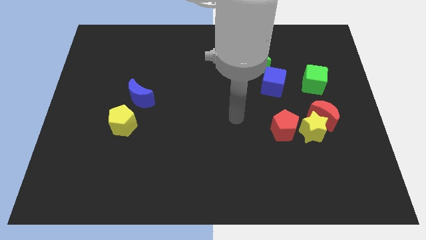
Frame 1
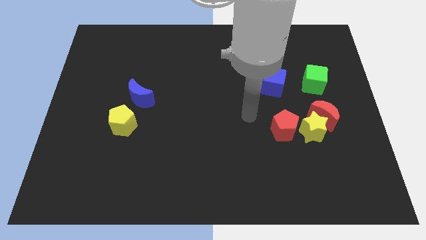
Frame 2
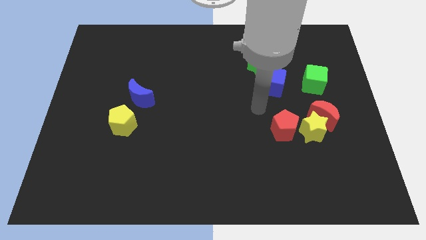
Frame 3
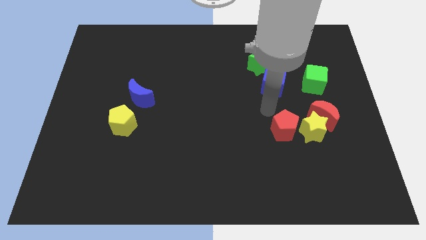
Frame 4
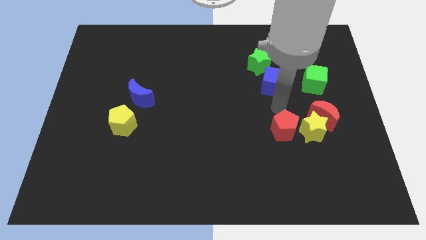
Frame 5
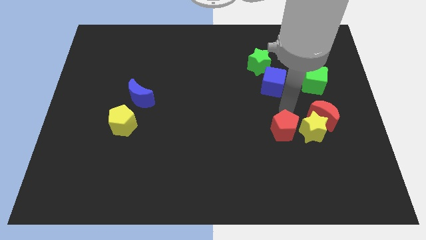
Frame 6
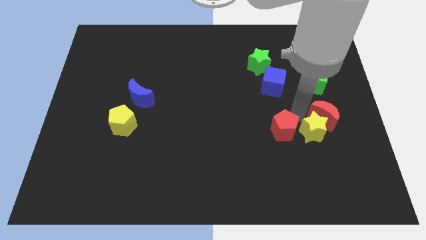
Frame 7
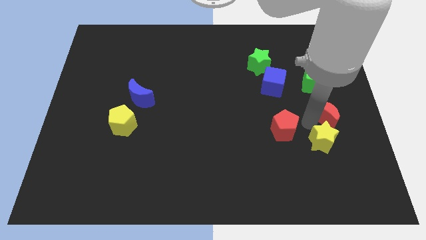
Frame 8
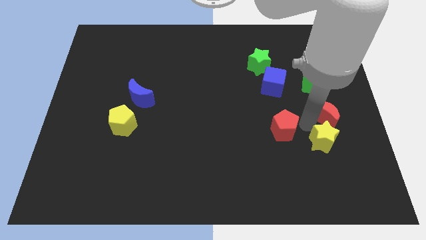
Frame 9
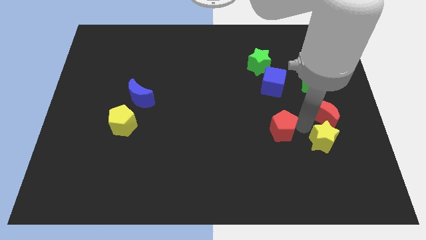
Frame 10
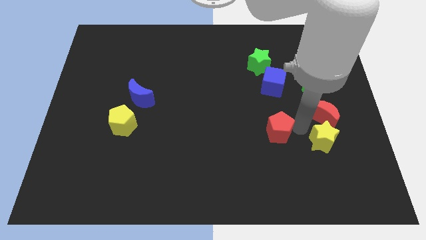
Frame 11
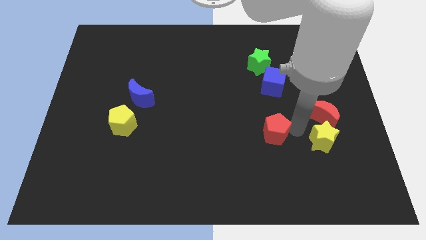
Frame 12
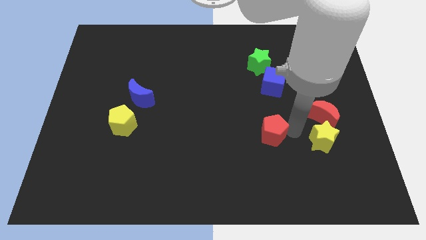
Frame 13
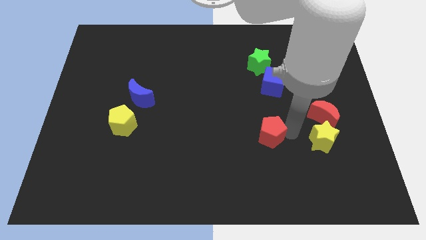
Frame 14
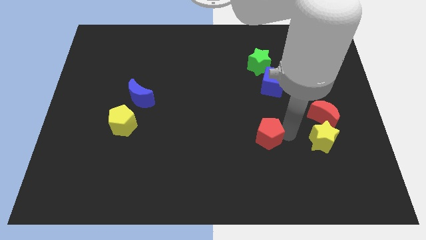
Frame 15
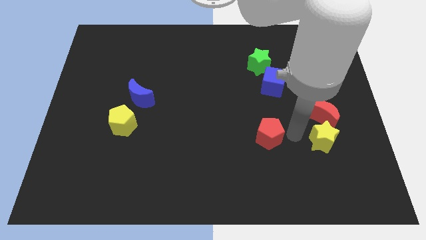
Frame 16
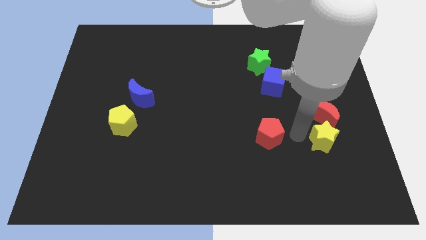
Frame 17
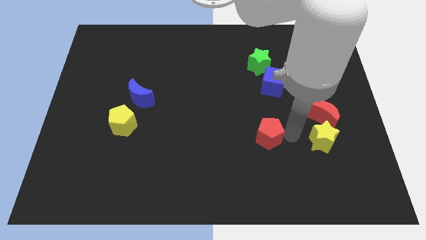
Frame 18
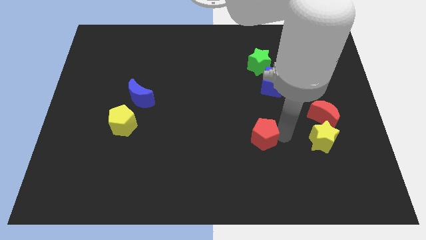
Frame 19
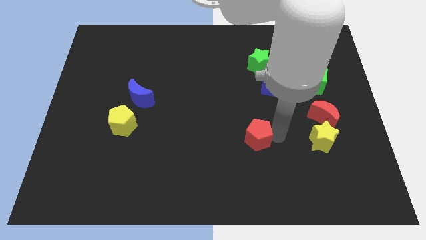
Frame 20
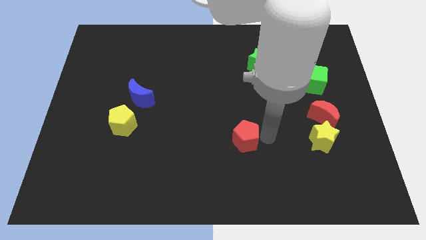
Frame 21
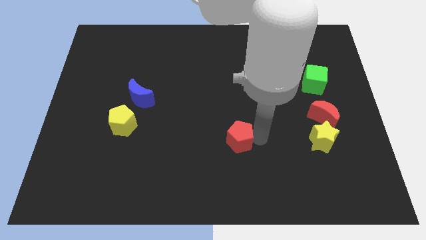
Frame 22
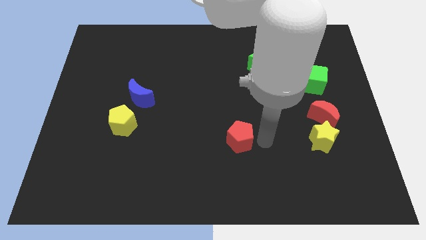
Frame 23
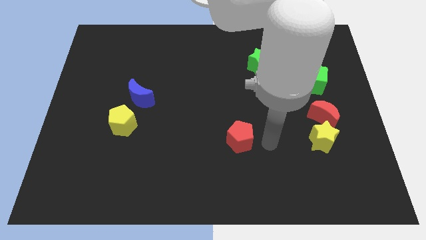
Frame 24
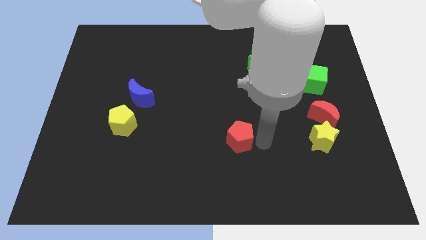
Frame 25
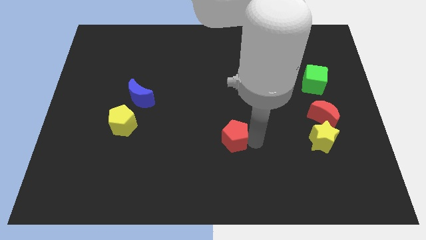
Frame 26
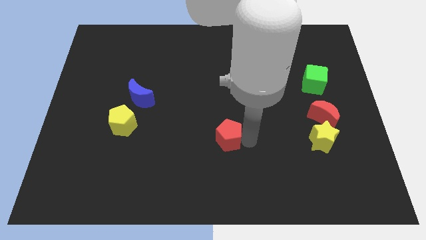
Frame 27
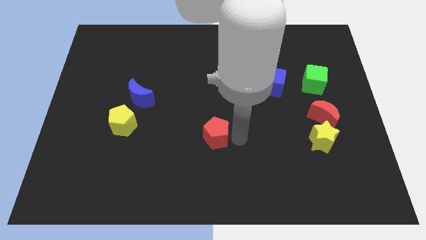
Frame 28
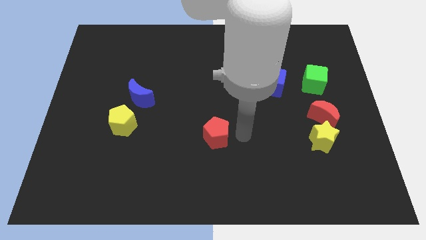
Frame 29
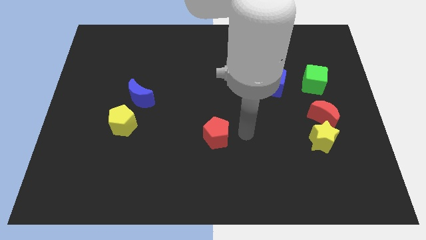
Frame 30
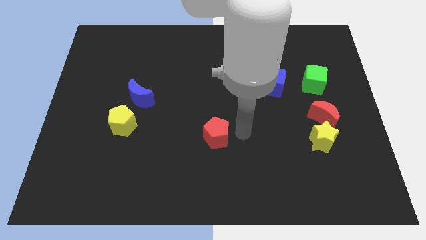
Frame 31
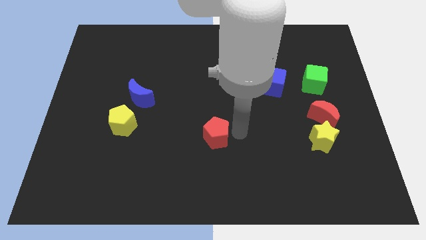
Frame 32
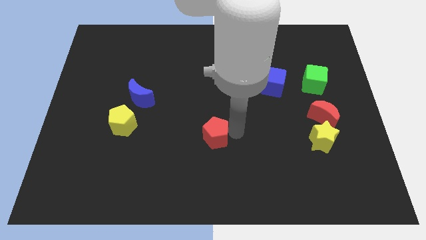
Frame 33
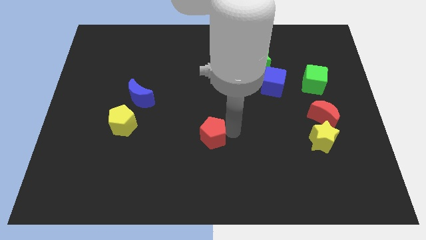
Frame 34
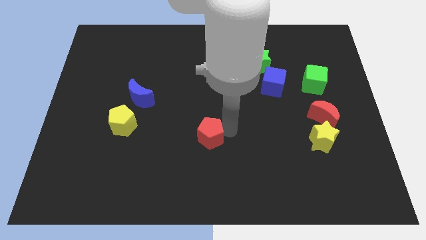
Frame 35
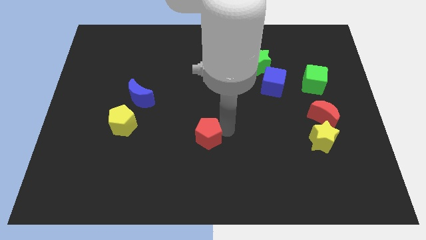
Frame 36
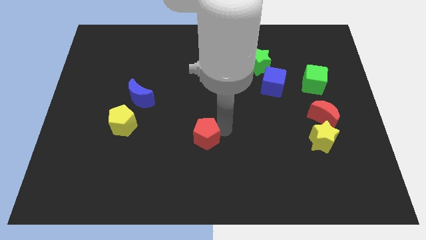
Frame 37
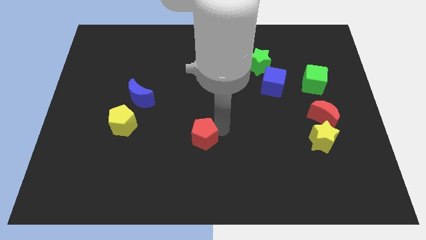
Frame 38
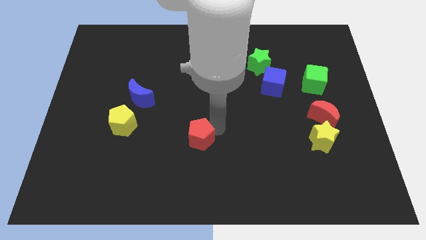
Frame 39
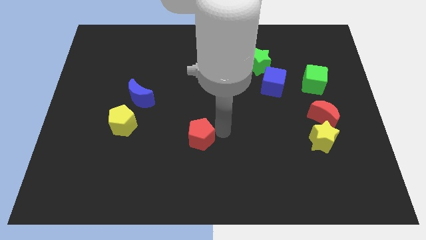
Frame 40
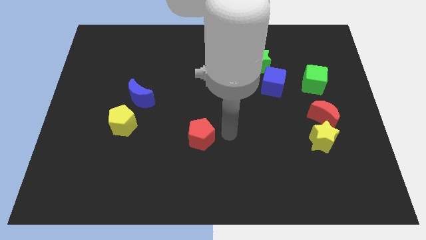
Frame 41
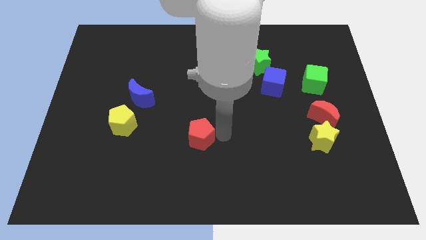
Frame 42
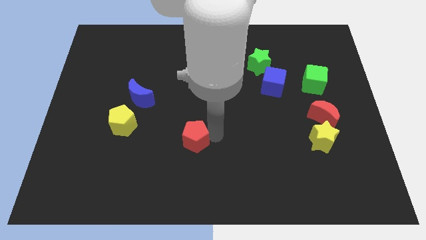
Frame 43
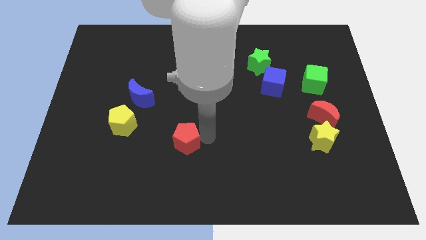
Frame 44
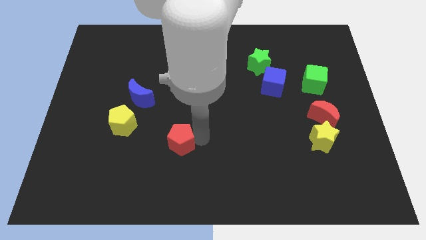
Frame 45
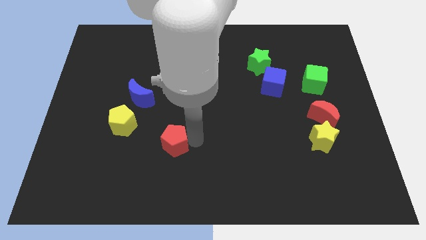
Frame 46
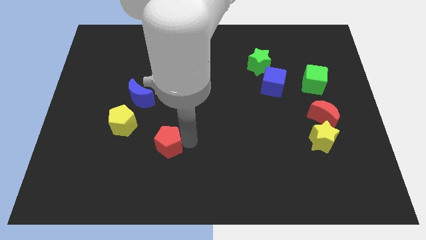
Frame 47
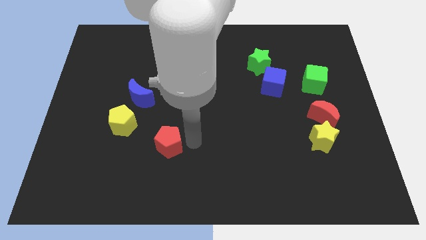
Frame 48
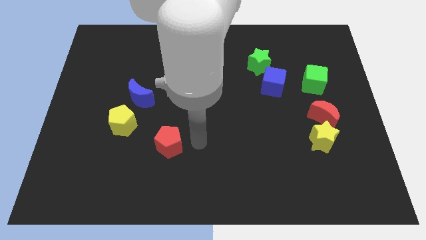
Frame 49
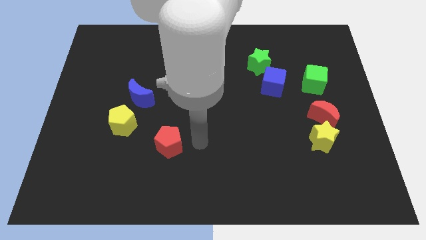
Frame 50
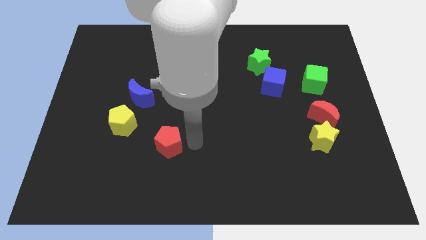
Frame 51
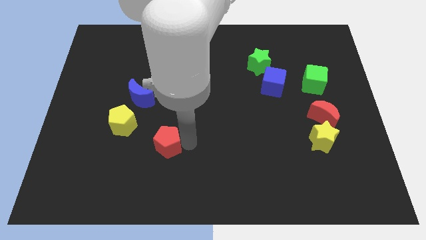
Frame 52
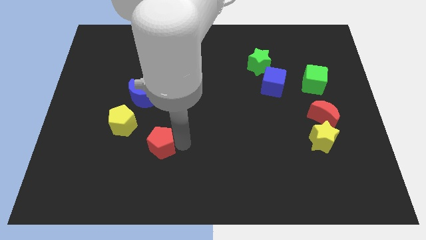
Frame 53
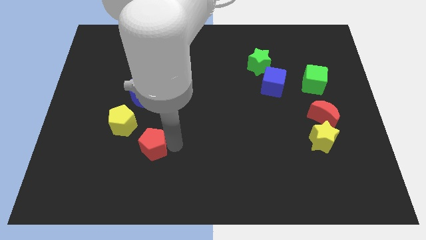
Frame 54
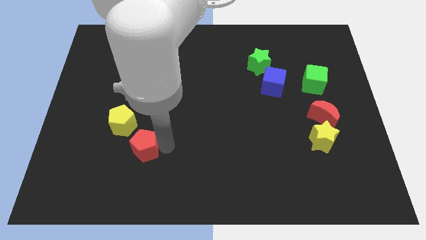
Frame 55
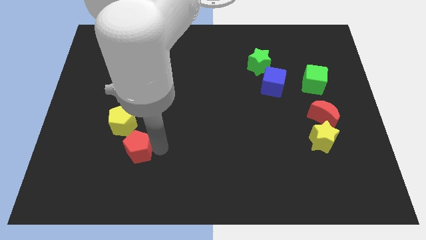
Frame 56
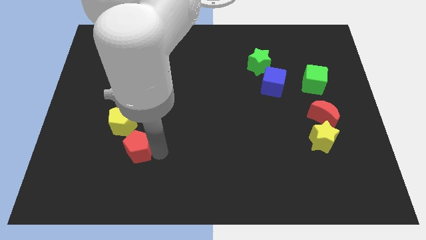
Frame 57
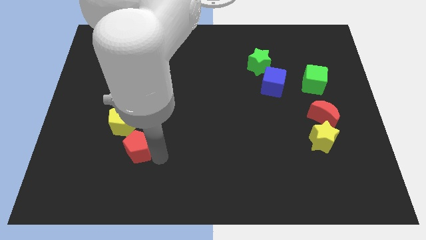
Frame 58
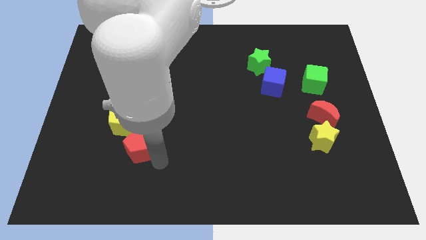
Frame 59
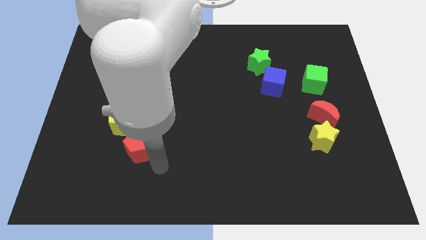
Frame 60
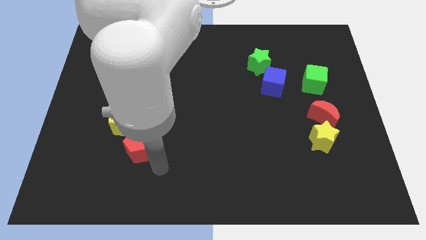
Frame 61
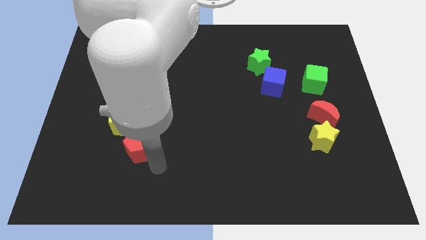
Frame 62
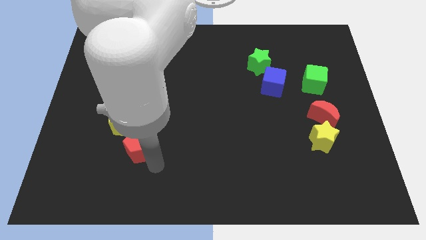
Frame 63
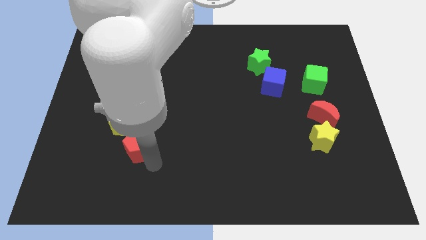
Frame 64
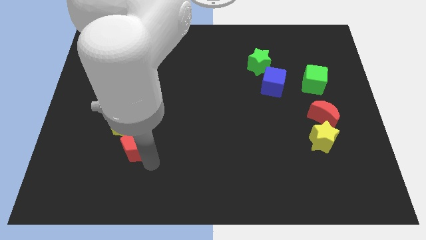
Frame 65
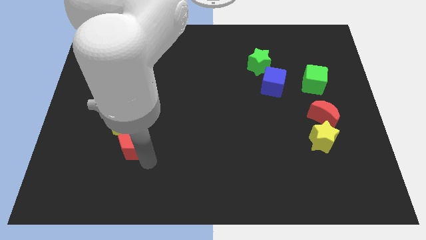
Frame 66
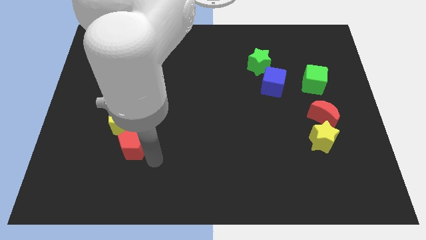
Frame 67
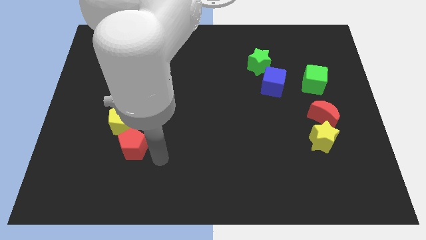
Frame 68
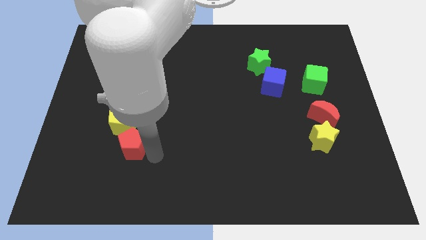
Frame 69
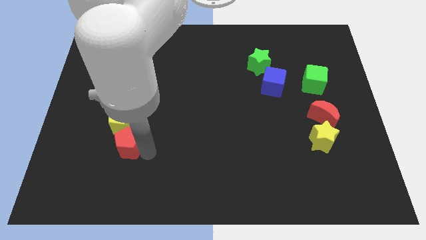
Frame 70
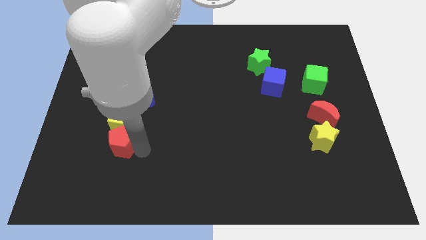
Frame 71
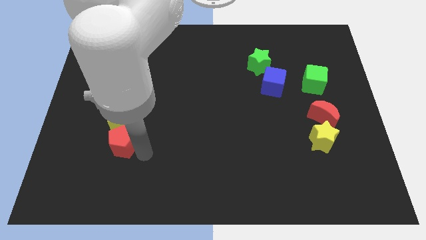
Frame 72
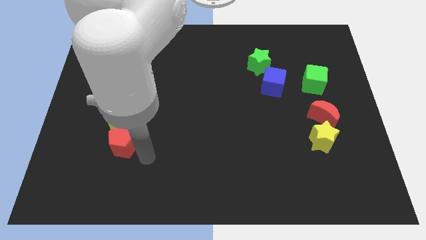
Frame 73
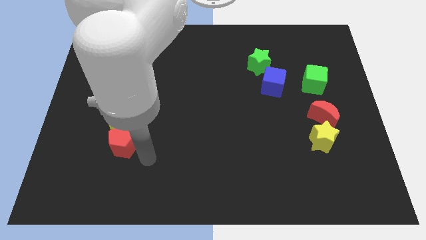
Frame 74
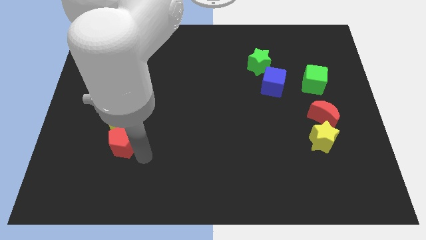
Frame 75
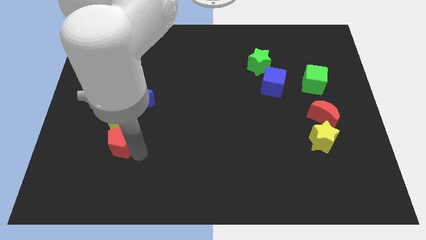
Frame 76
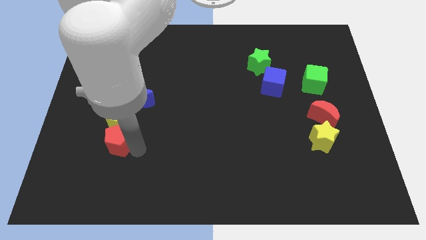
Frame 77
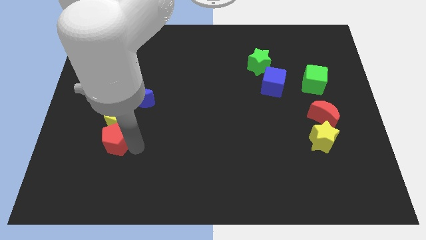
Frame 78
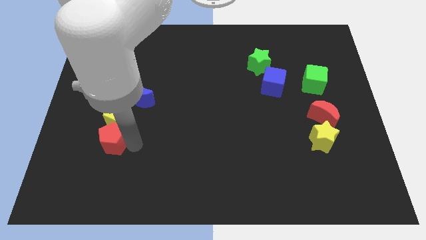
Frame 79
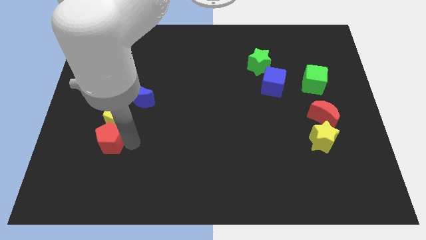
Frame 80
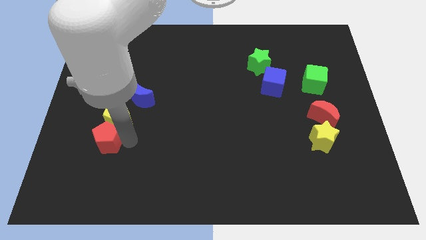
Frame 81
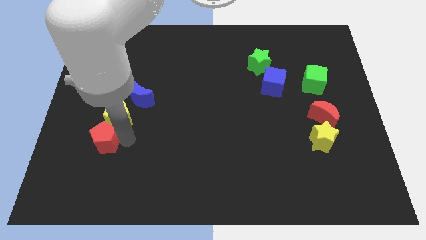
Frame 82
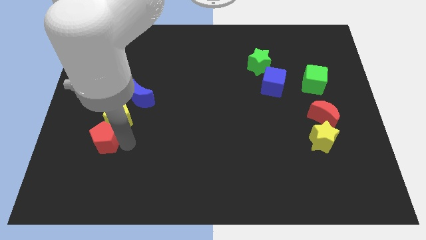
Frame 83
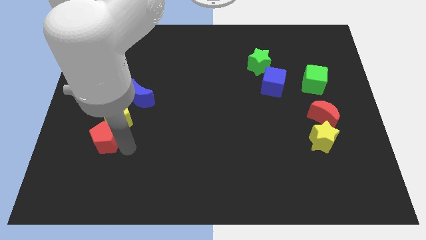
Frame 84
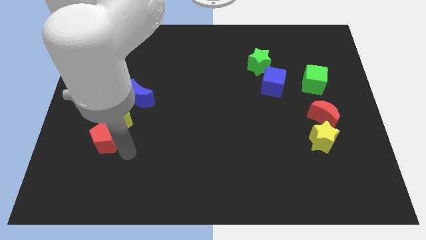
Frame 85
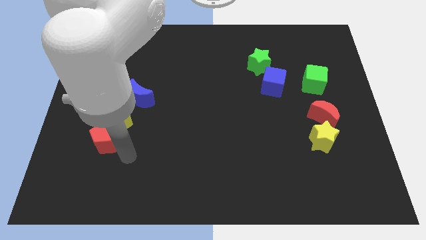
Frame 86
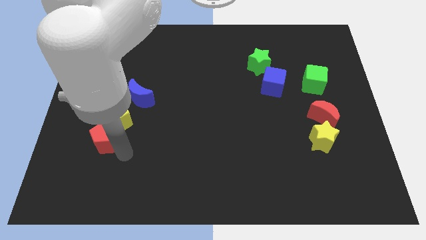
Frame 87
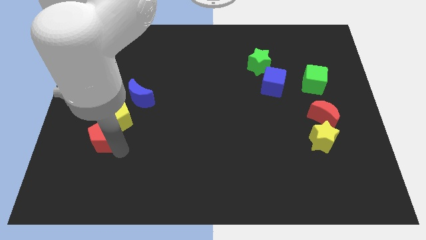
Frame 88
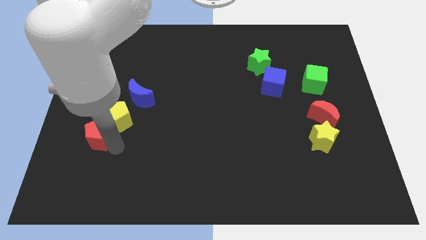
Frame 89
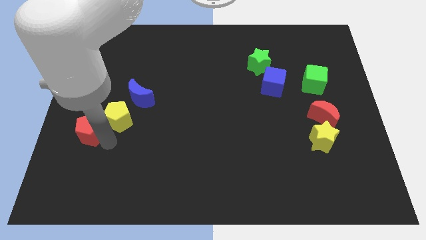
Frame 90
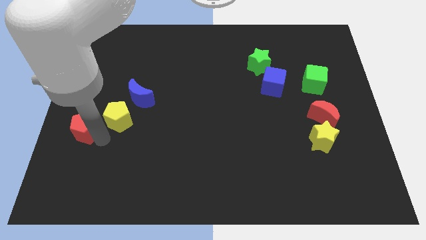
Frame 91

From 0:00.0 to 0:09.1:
put the red pentagon to the left side of the board
